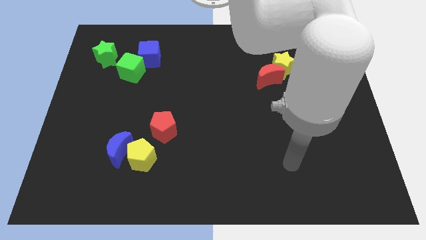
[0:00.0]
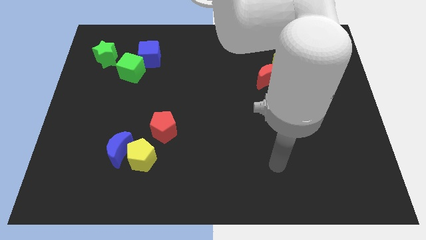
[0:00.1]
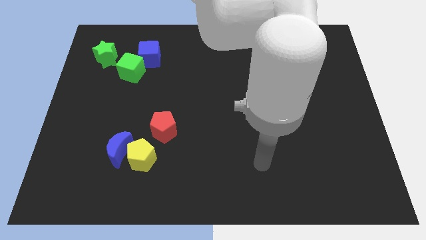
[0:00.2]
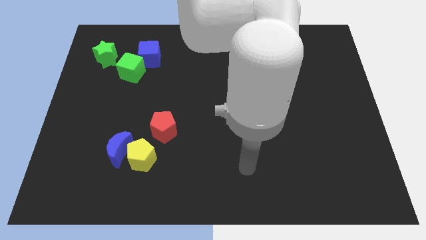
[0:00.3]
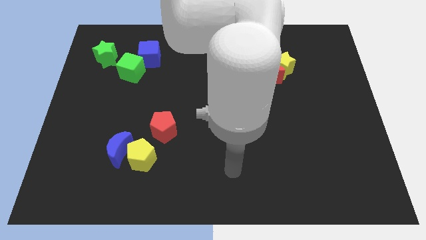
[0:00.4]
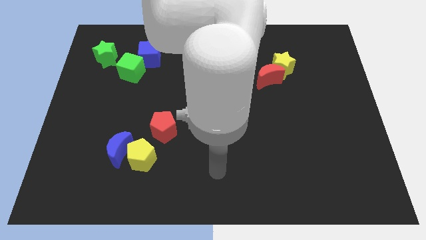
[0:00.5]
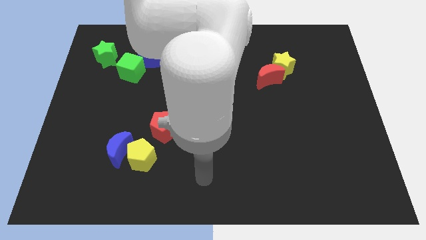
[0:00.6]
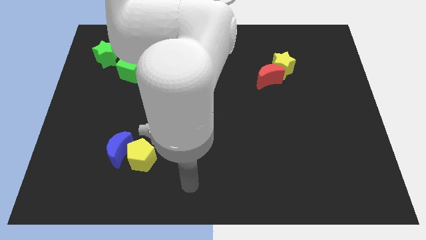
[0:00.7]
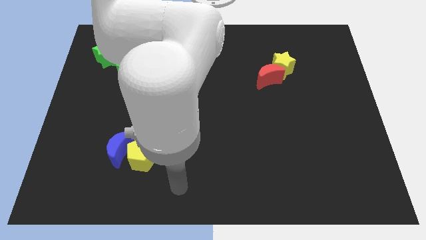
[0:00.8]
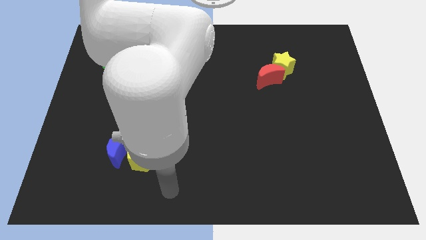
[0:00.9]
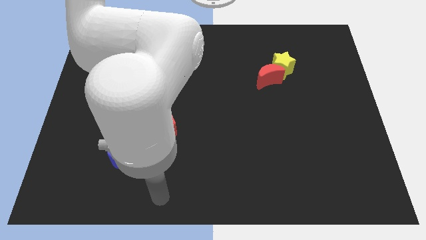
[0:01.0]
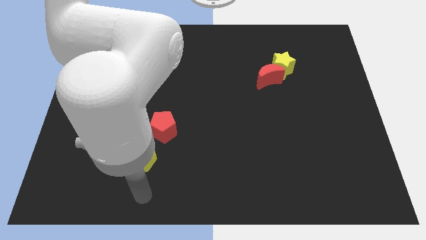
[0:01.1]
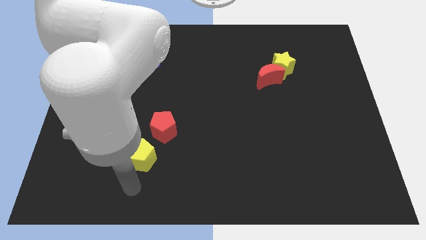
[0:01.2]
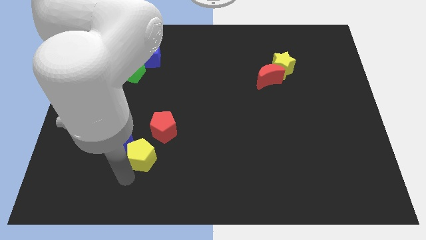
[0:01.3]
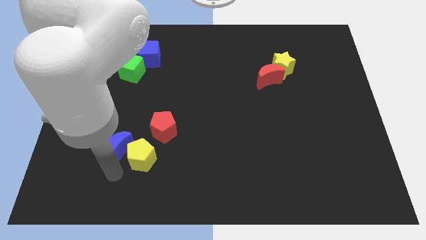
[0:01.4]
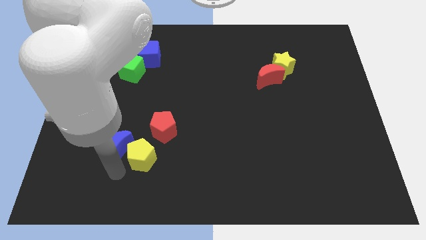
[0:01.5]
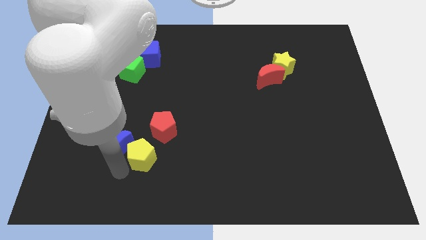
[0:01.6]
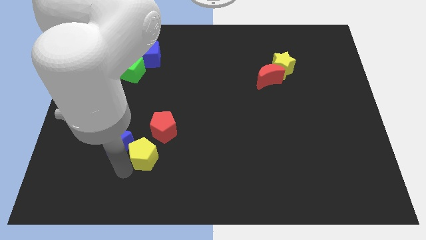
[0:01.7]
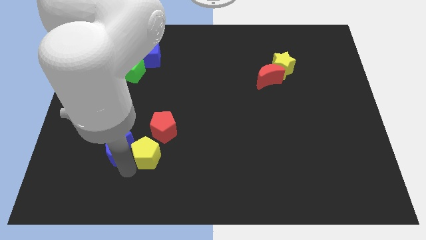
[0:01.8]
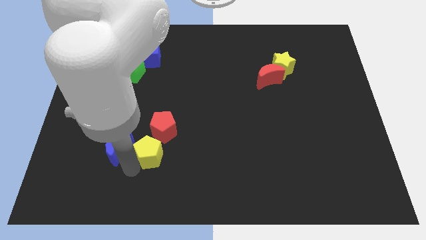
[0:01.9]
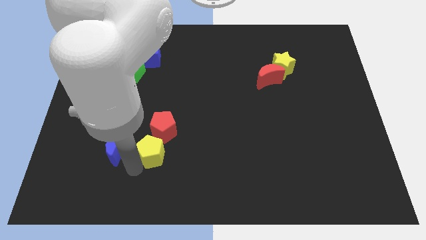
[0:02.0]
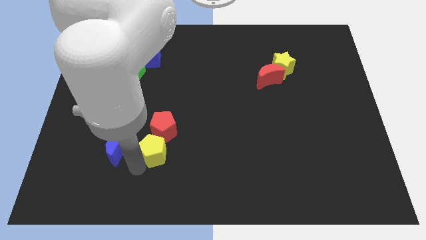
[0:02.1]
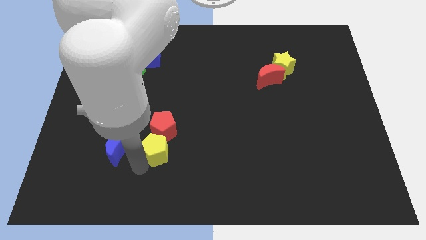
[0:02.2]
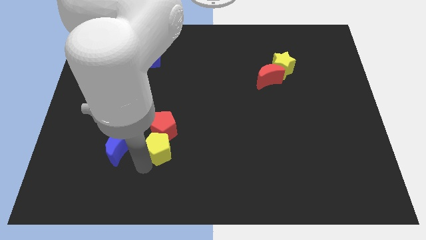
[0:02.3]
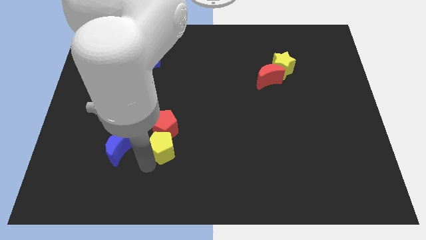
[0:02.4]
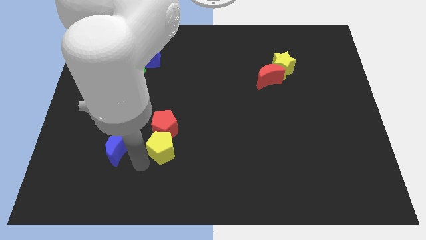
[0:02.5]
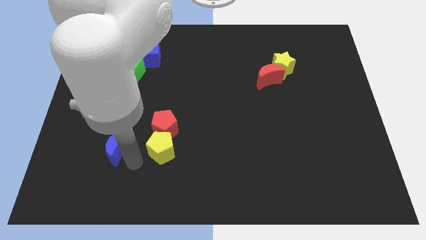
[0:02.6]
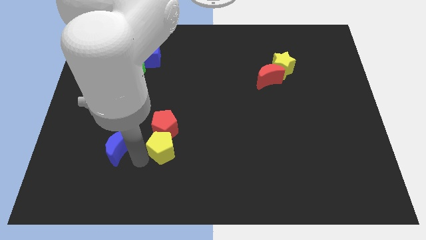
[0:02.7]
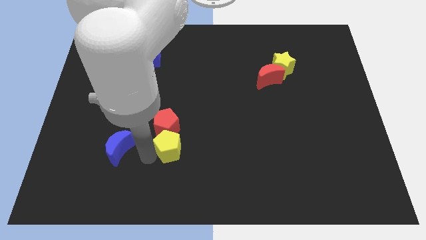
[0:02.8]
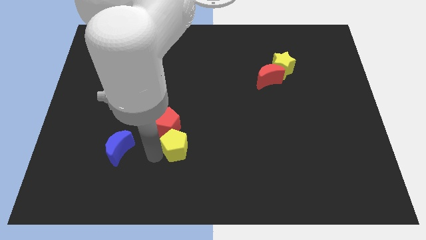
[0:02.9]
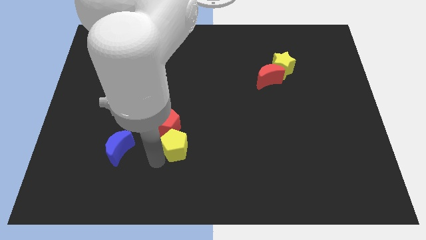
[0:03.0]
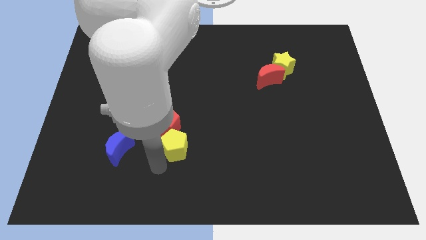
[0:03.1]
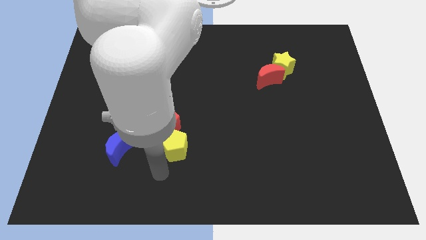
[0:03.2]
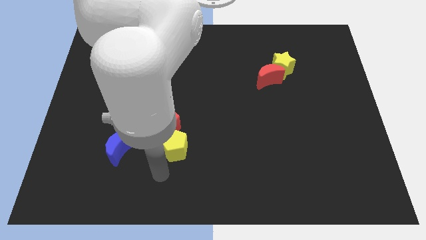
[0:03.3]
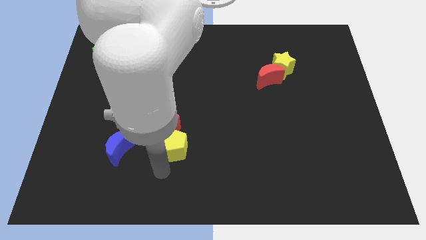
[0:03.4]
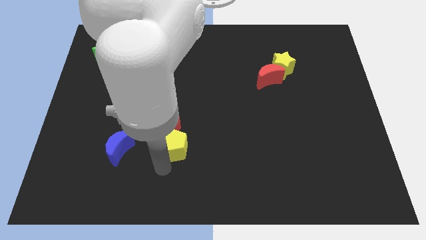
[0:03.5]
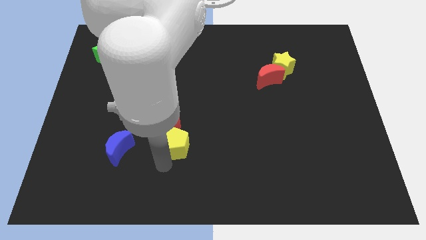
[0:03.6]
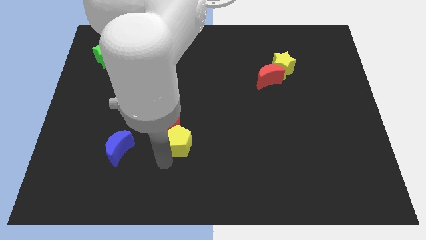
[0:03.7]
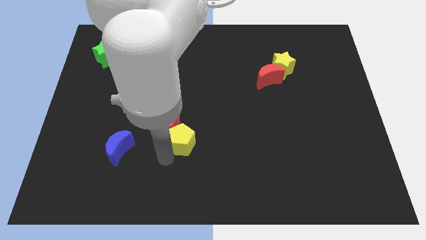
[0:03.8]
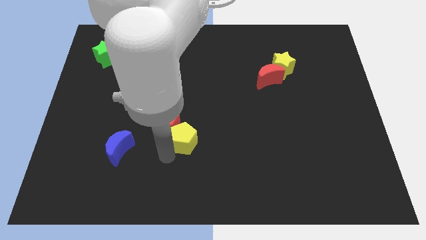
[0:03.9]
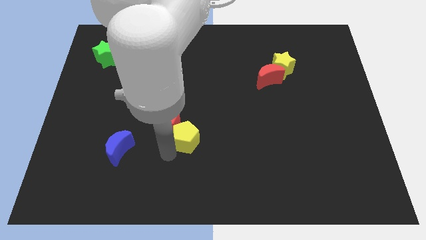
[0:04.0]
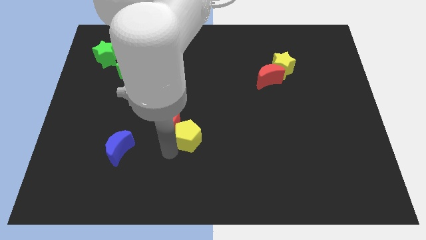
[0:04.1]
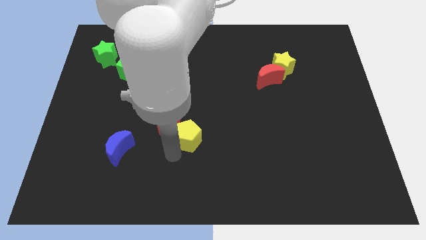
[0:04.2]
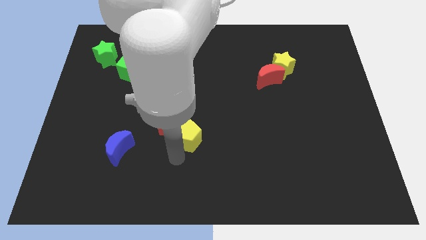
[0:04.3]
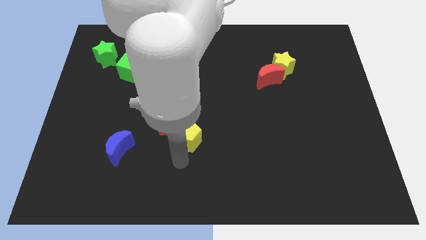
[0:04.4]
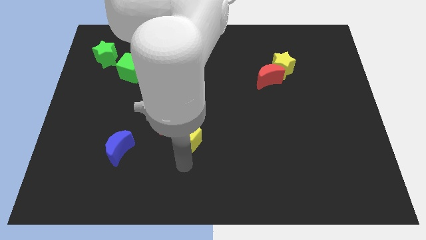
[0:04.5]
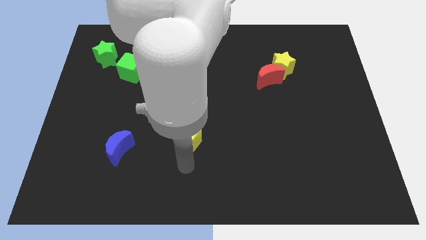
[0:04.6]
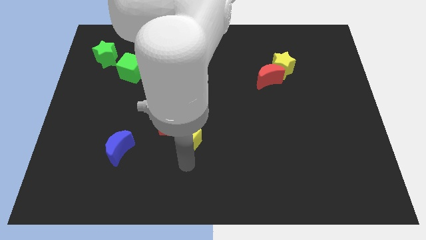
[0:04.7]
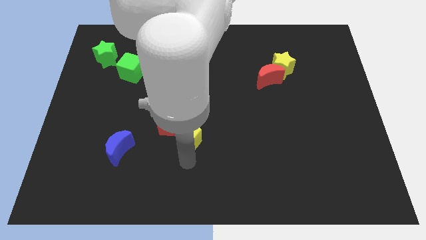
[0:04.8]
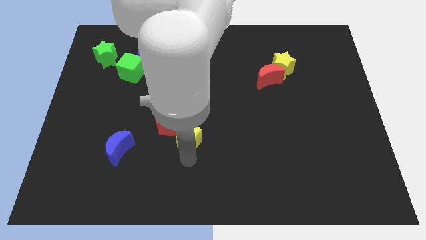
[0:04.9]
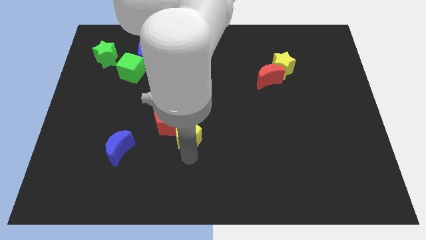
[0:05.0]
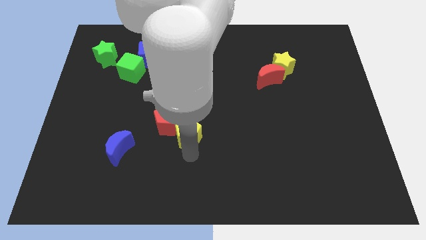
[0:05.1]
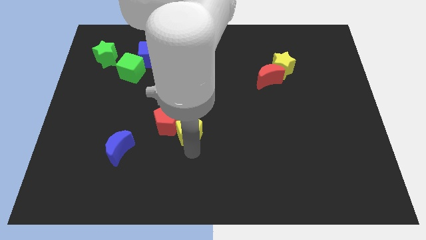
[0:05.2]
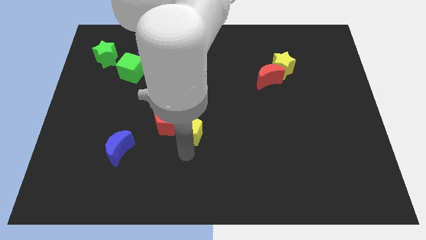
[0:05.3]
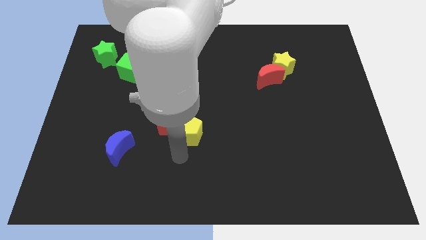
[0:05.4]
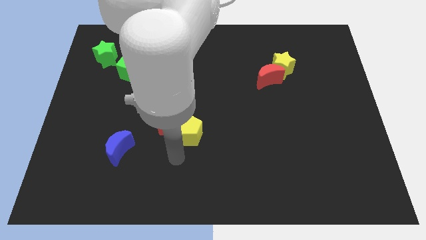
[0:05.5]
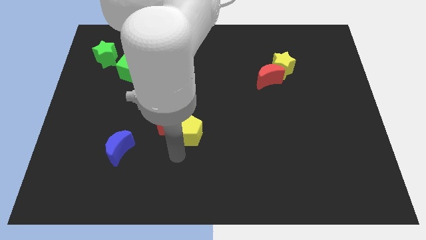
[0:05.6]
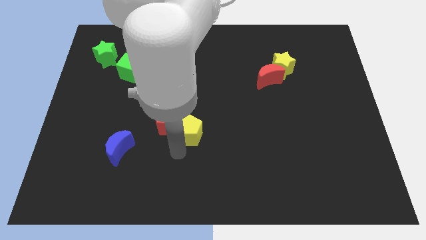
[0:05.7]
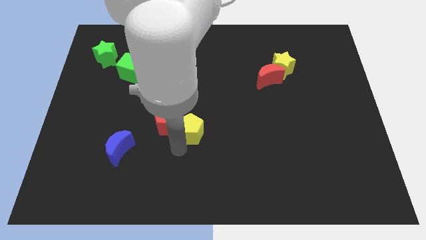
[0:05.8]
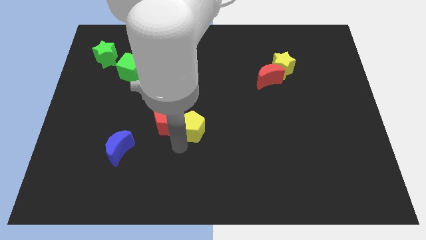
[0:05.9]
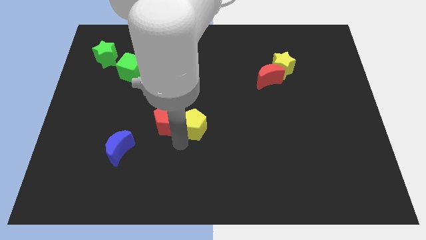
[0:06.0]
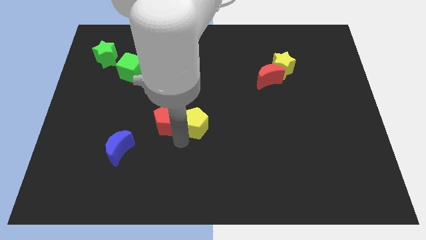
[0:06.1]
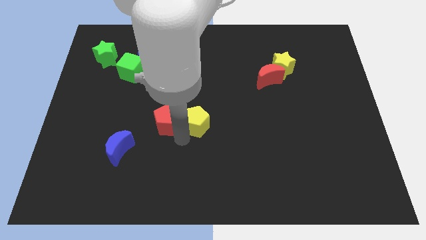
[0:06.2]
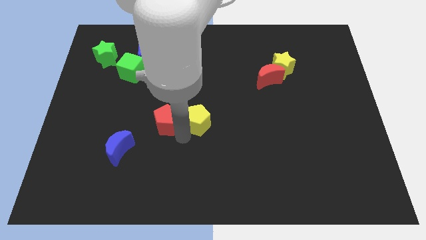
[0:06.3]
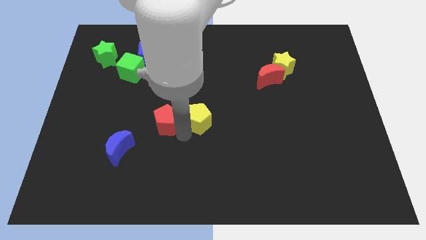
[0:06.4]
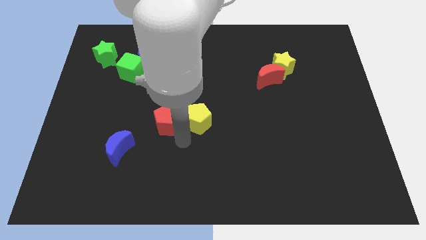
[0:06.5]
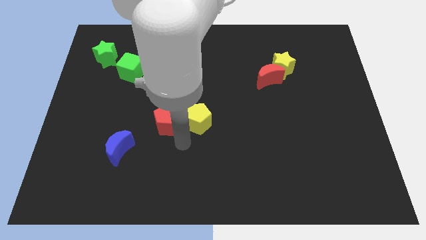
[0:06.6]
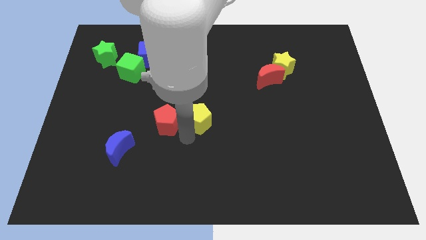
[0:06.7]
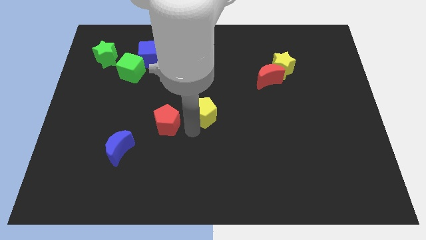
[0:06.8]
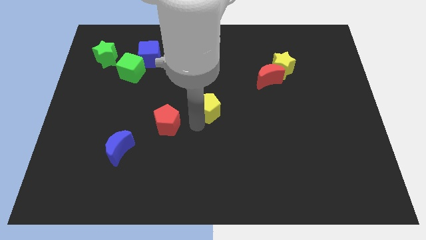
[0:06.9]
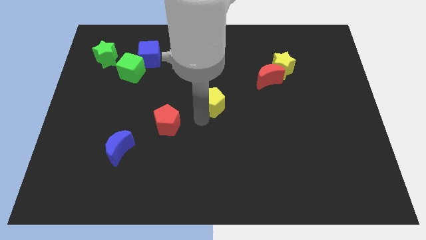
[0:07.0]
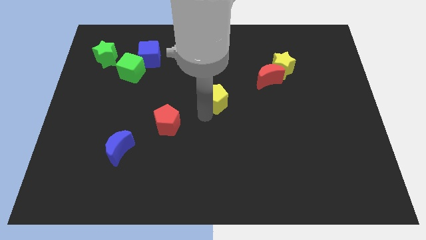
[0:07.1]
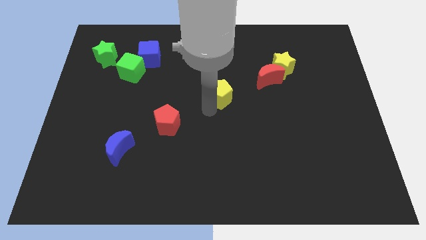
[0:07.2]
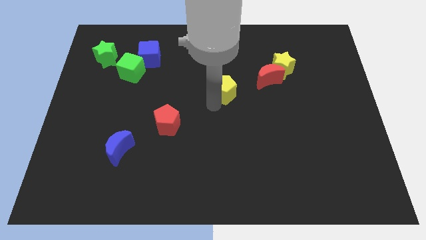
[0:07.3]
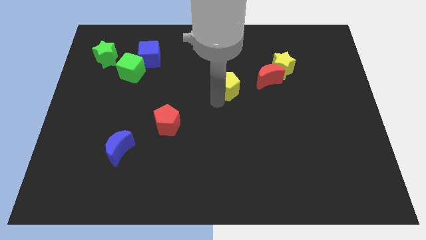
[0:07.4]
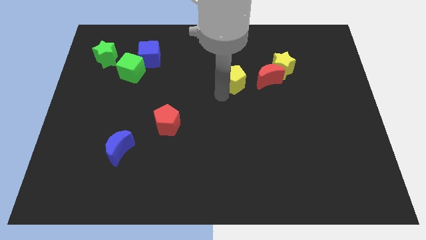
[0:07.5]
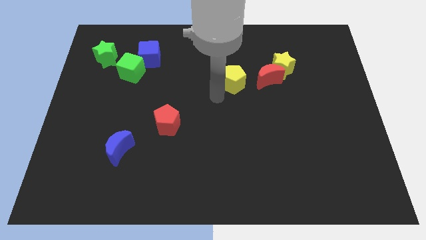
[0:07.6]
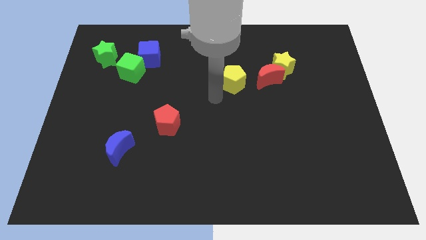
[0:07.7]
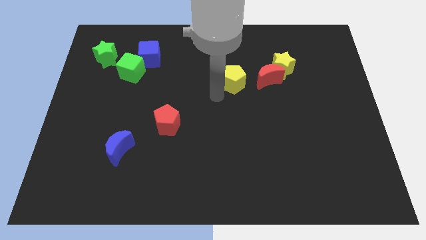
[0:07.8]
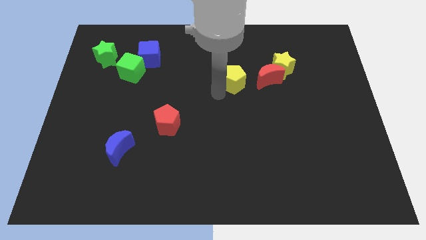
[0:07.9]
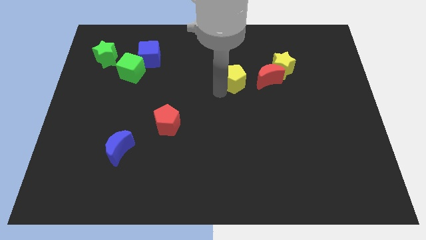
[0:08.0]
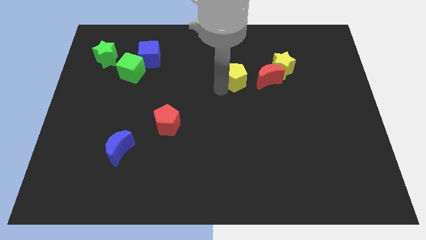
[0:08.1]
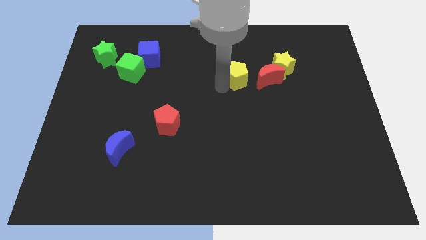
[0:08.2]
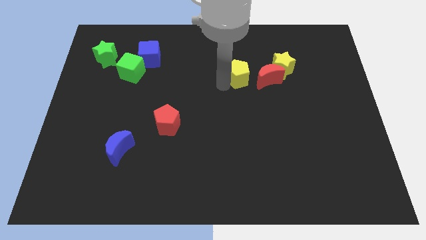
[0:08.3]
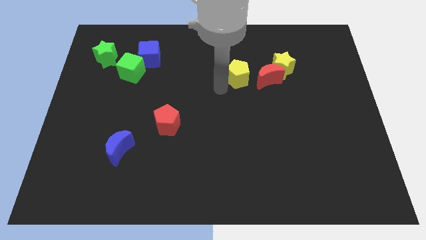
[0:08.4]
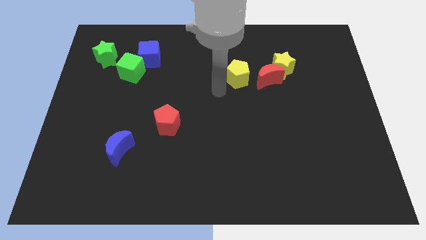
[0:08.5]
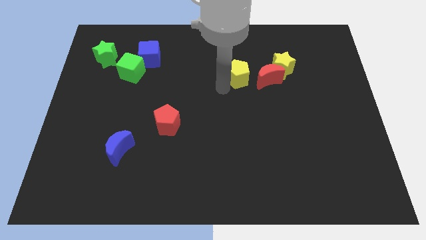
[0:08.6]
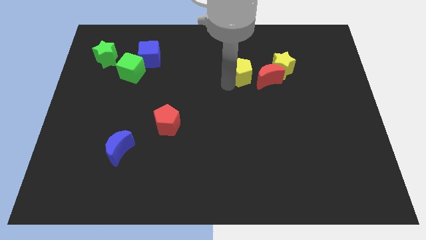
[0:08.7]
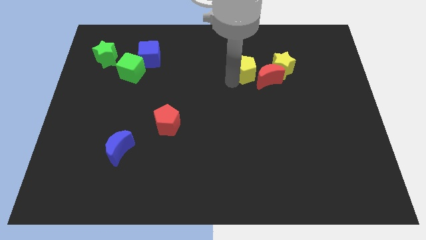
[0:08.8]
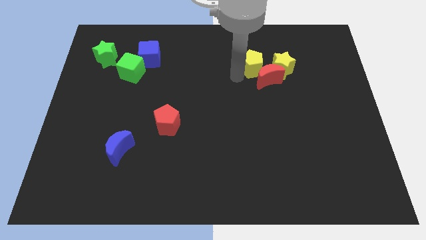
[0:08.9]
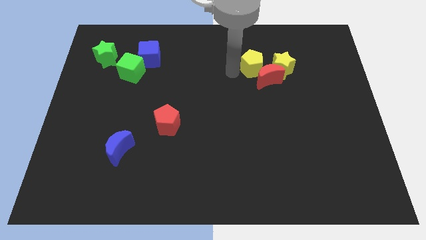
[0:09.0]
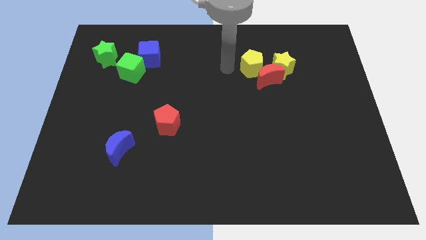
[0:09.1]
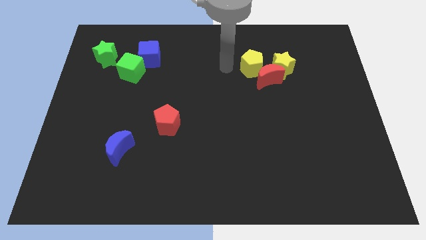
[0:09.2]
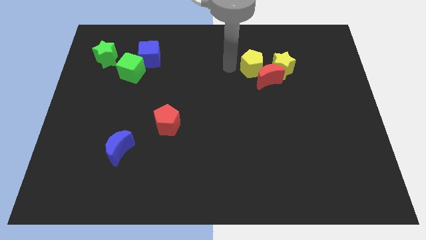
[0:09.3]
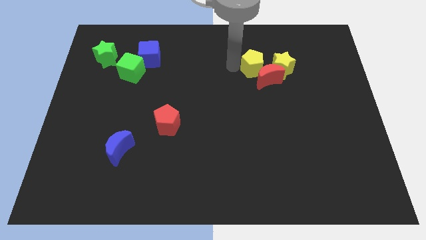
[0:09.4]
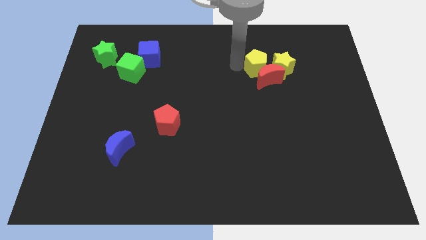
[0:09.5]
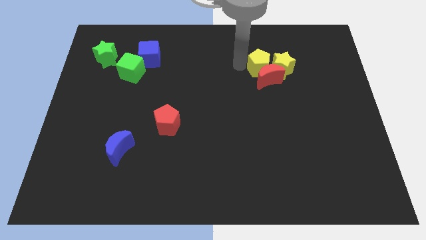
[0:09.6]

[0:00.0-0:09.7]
slide the yellow pentagon to the yellow star
